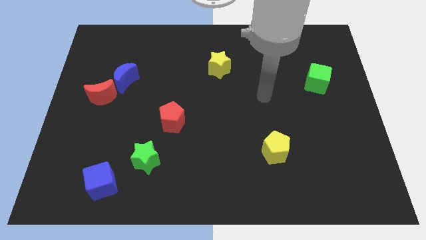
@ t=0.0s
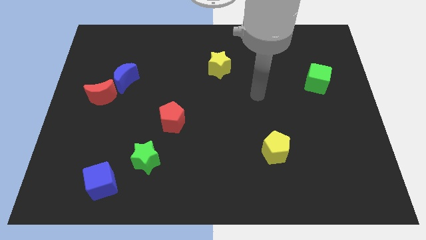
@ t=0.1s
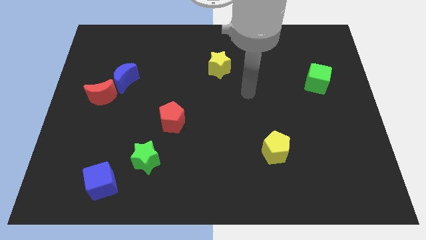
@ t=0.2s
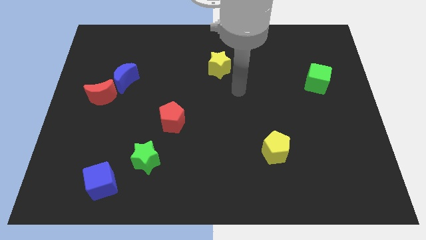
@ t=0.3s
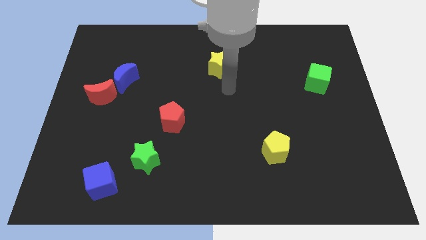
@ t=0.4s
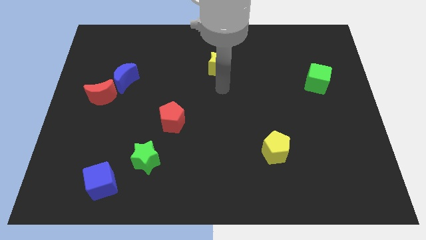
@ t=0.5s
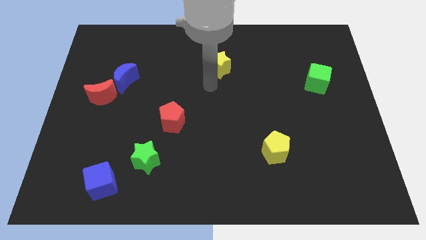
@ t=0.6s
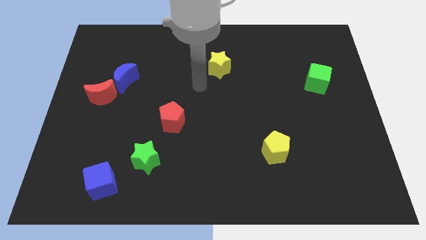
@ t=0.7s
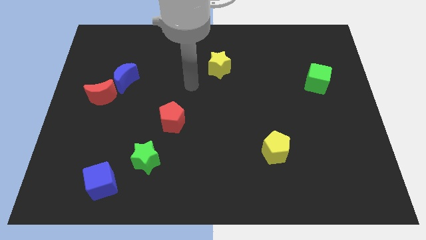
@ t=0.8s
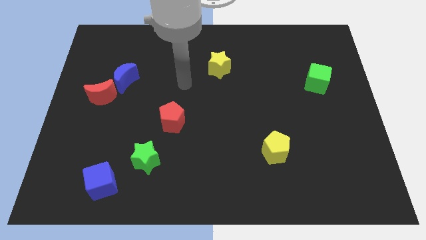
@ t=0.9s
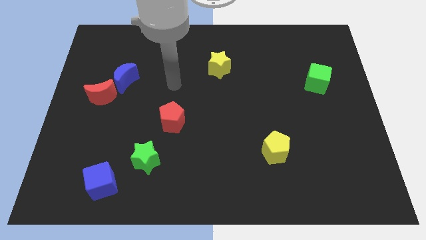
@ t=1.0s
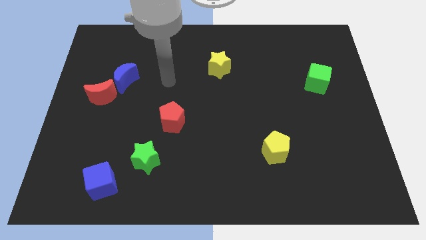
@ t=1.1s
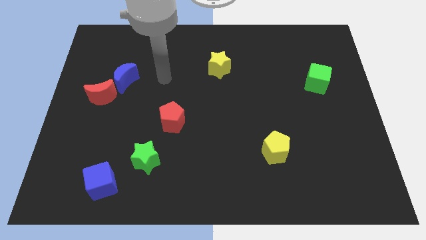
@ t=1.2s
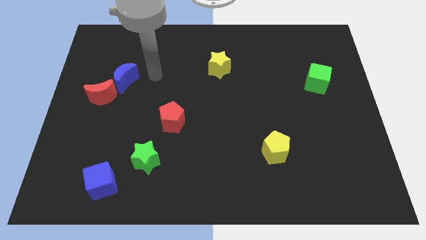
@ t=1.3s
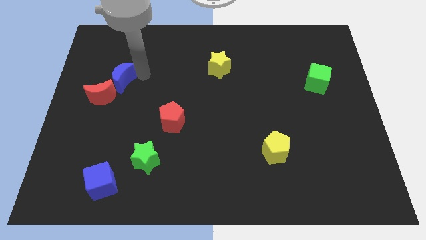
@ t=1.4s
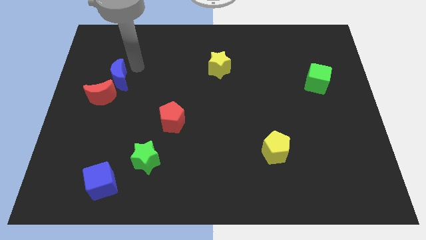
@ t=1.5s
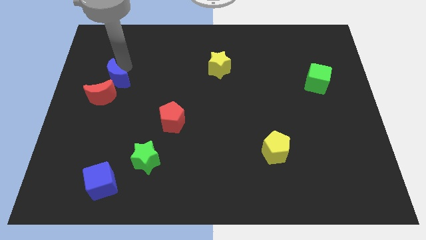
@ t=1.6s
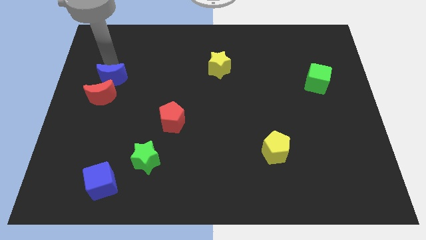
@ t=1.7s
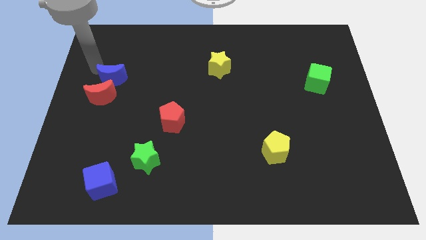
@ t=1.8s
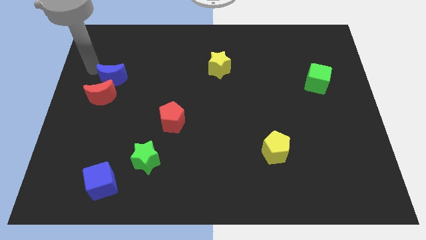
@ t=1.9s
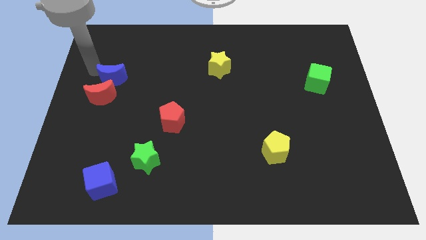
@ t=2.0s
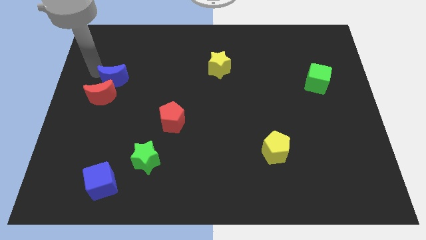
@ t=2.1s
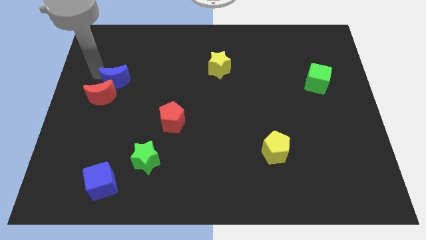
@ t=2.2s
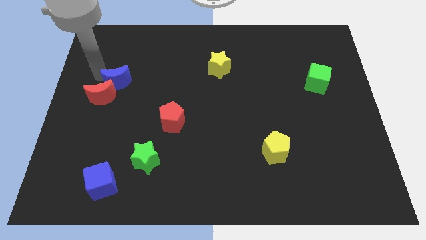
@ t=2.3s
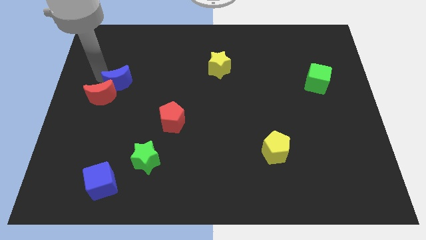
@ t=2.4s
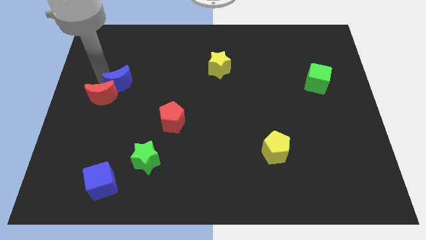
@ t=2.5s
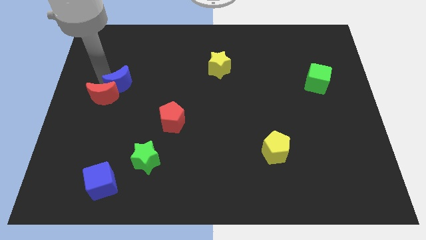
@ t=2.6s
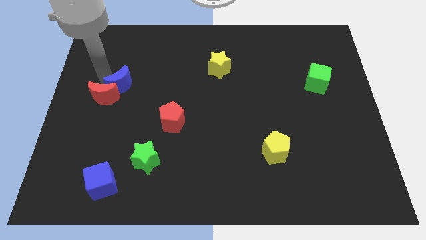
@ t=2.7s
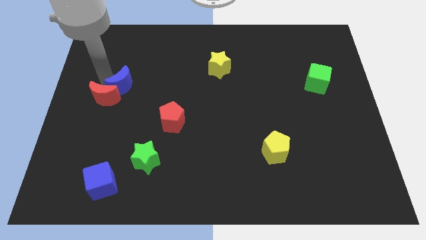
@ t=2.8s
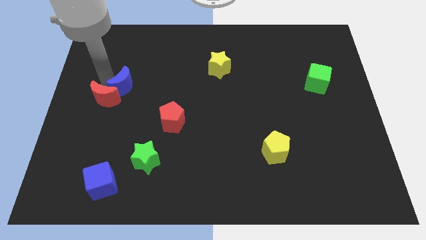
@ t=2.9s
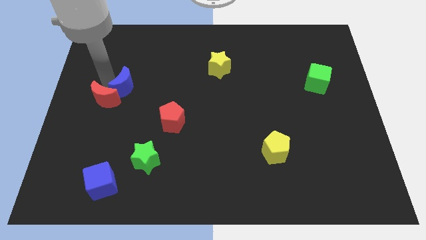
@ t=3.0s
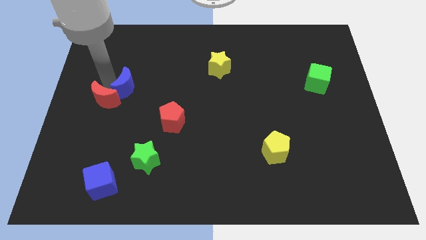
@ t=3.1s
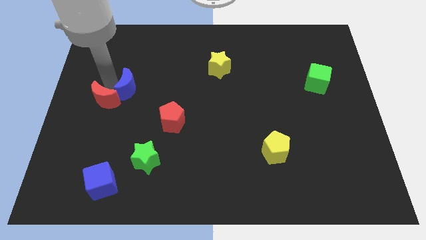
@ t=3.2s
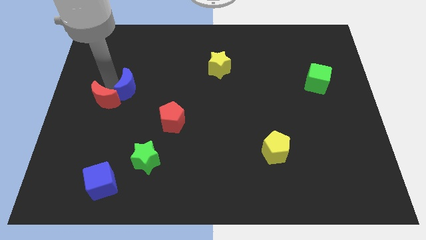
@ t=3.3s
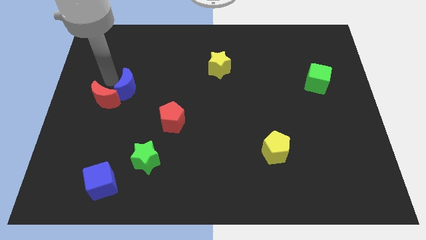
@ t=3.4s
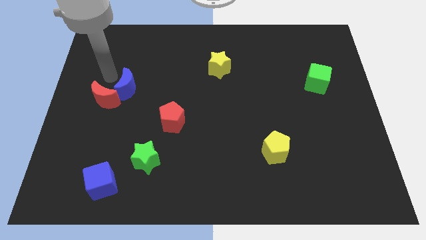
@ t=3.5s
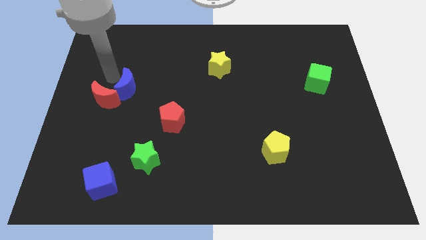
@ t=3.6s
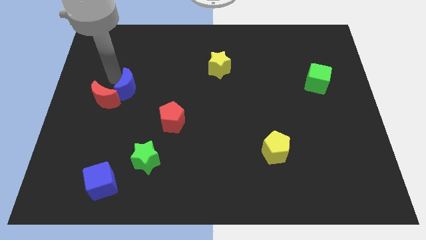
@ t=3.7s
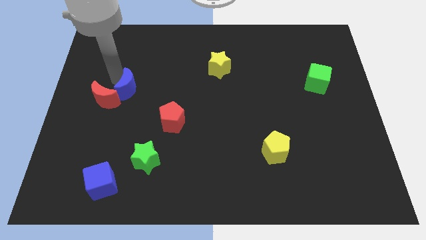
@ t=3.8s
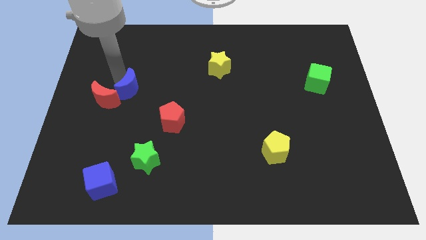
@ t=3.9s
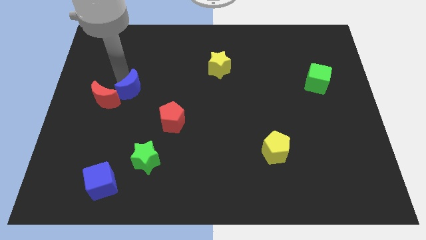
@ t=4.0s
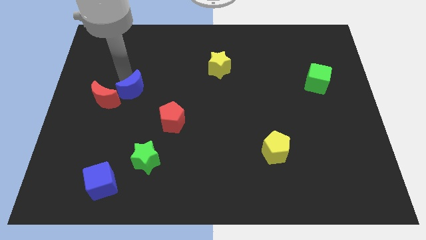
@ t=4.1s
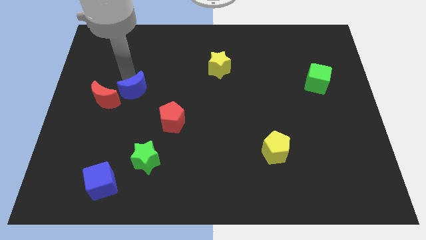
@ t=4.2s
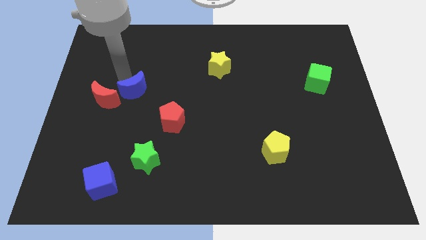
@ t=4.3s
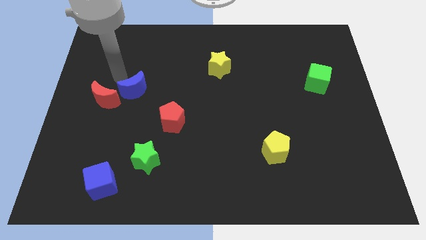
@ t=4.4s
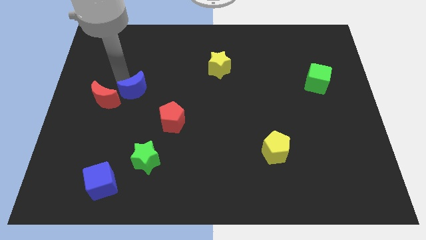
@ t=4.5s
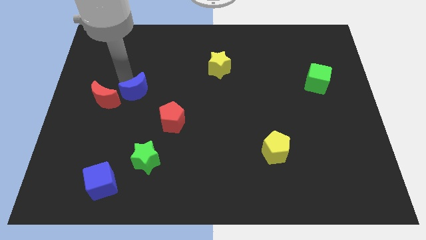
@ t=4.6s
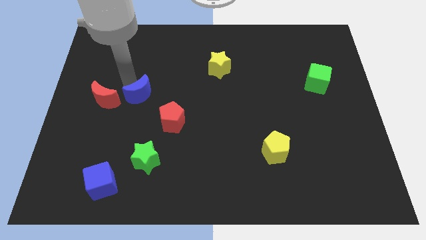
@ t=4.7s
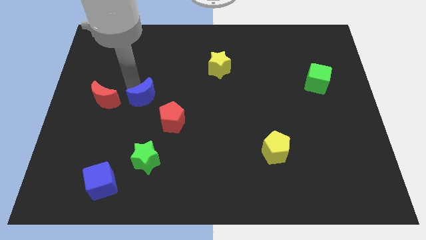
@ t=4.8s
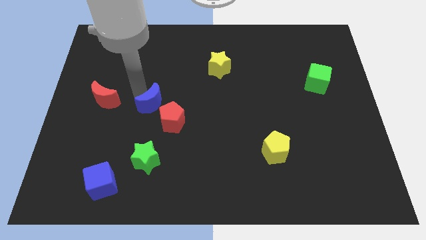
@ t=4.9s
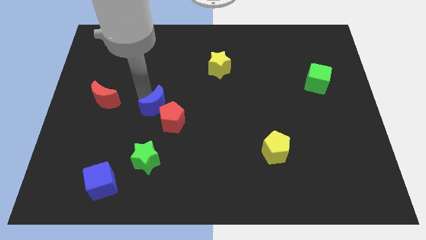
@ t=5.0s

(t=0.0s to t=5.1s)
move the blue moon towards the red pentagon

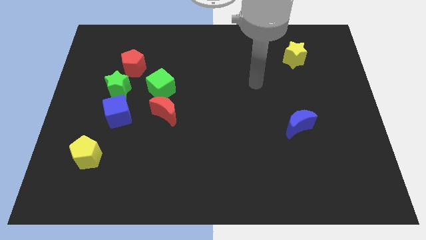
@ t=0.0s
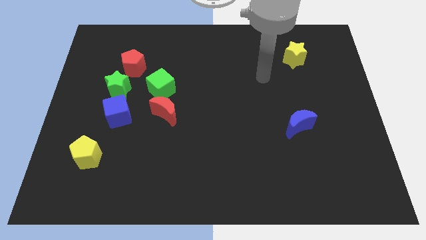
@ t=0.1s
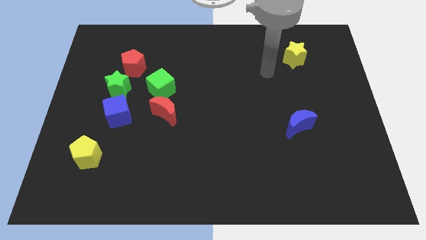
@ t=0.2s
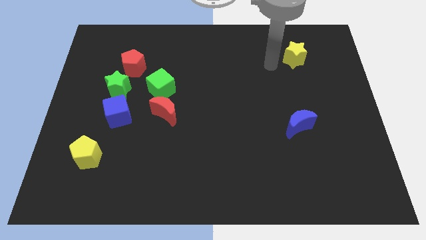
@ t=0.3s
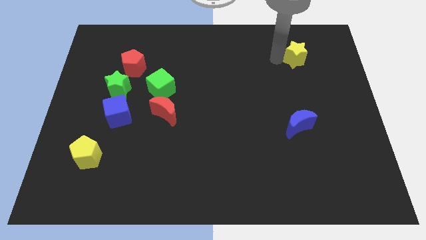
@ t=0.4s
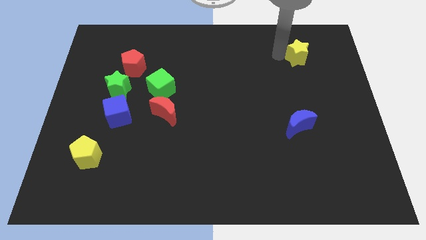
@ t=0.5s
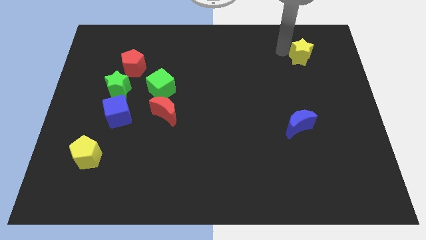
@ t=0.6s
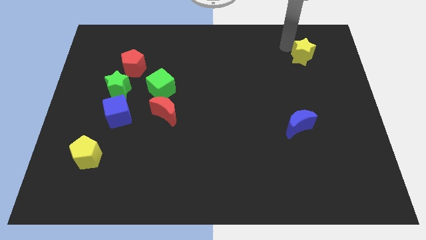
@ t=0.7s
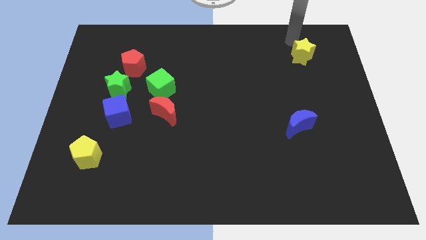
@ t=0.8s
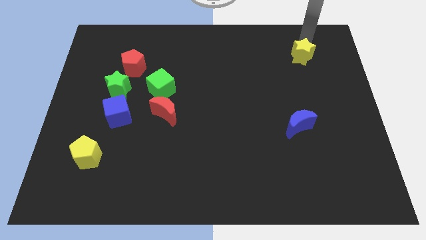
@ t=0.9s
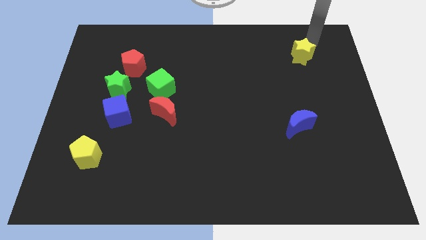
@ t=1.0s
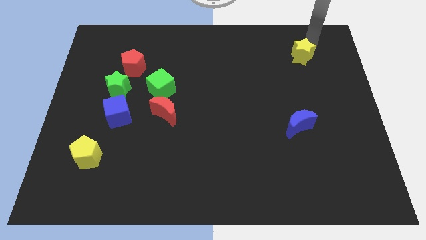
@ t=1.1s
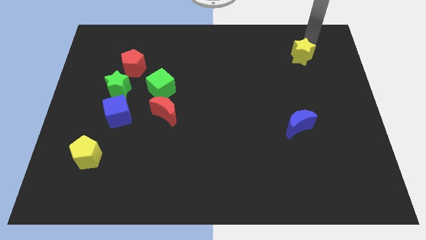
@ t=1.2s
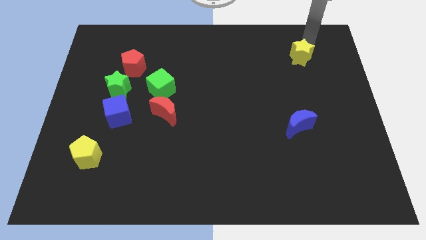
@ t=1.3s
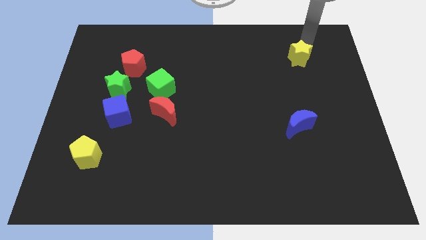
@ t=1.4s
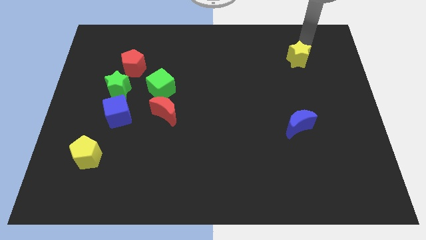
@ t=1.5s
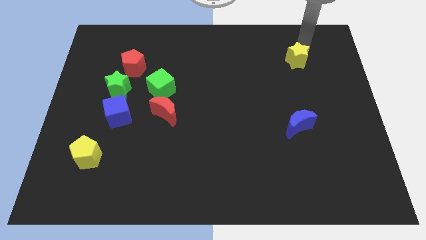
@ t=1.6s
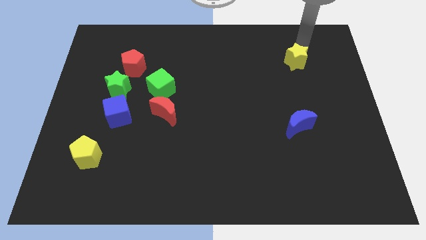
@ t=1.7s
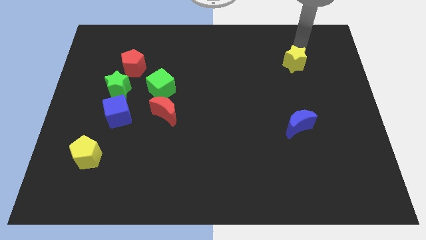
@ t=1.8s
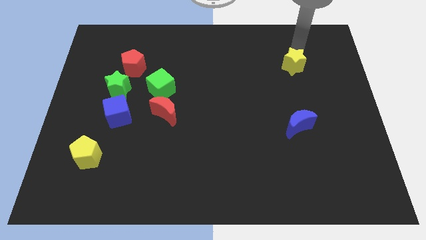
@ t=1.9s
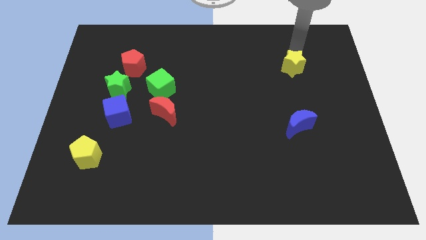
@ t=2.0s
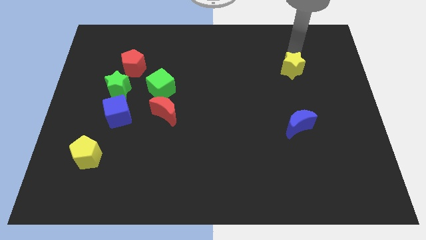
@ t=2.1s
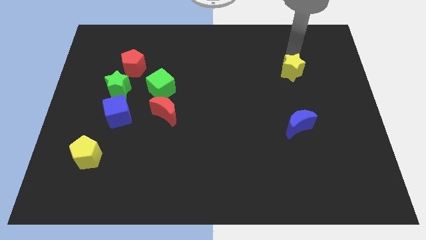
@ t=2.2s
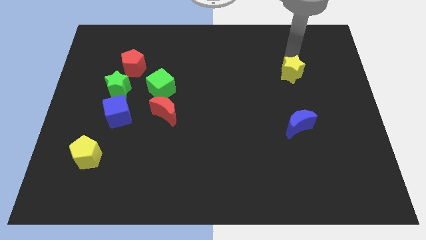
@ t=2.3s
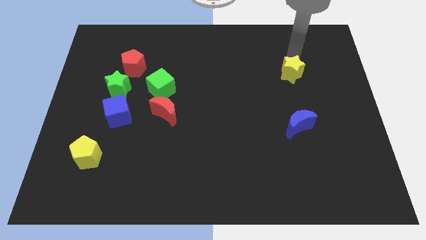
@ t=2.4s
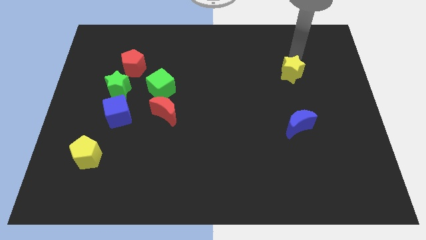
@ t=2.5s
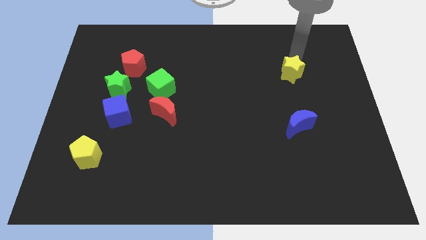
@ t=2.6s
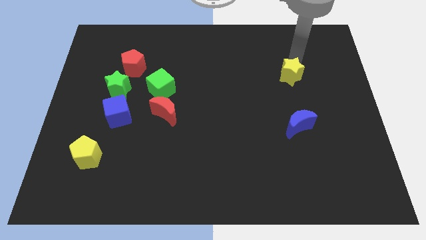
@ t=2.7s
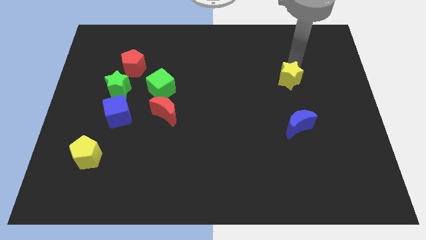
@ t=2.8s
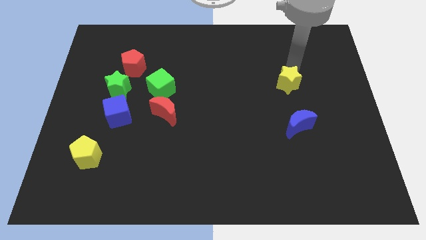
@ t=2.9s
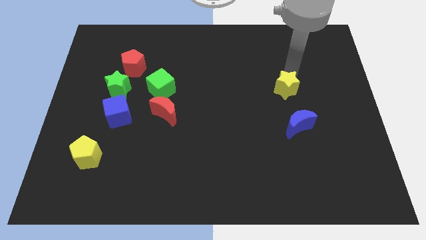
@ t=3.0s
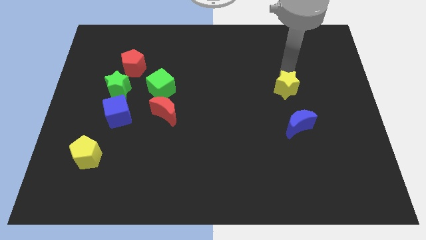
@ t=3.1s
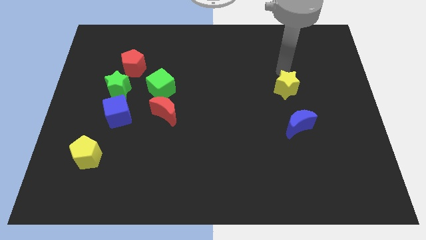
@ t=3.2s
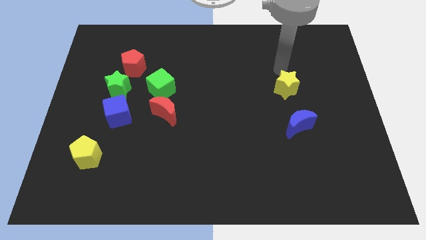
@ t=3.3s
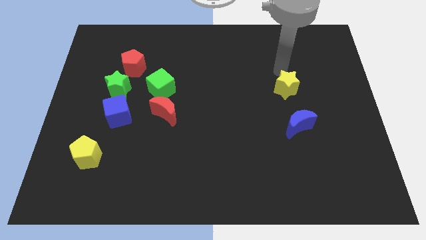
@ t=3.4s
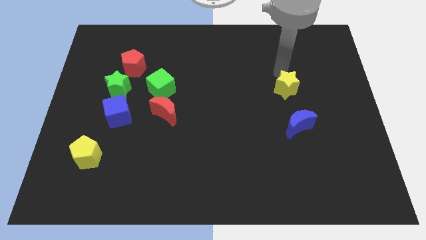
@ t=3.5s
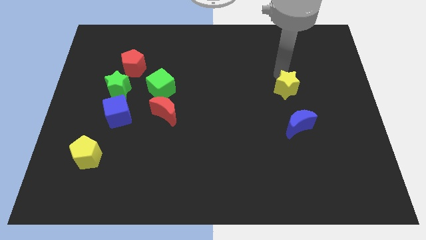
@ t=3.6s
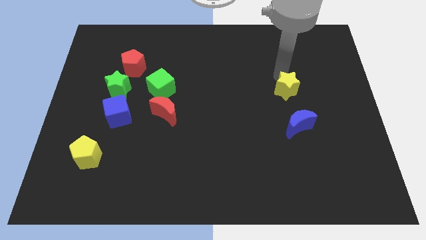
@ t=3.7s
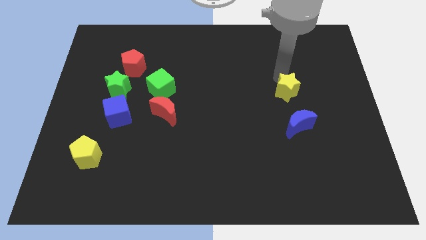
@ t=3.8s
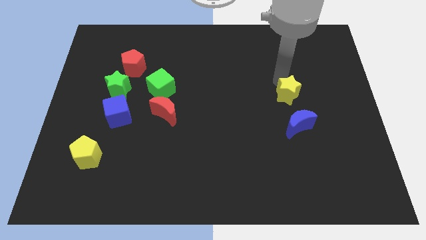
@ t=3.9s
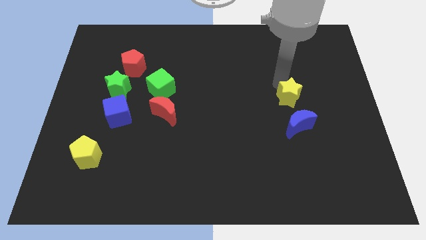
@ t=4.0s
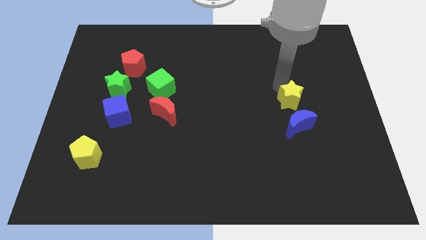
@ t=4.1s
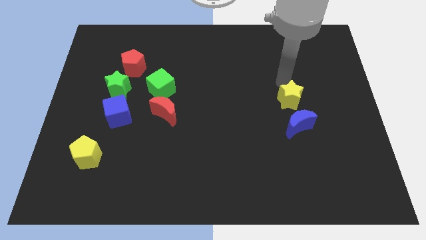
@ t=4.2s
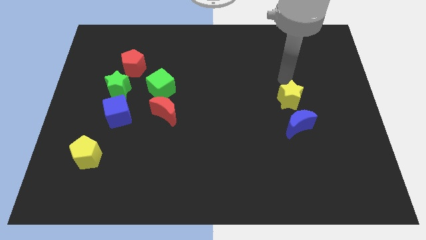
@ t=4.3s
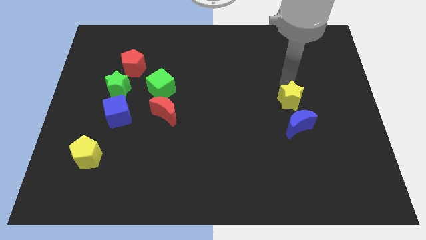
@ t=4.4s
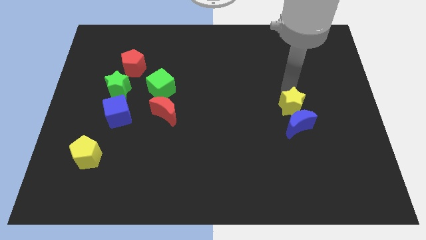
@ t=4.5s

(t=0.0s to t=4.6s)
slide the yellow star to the blue moon
